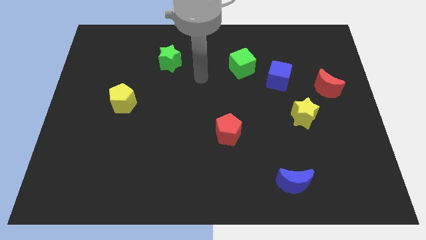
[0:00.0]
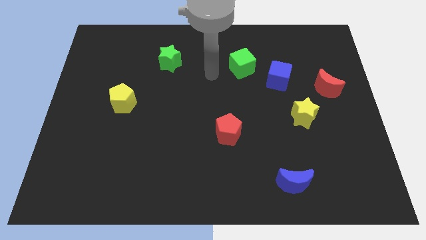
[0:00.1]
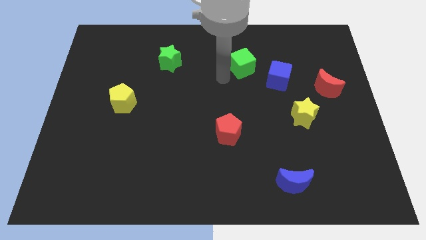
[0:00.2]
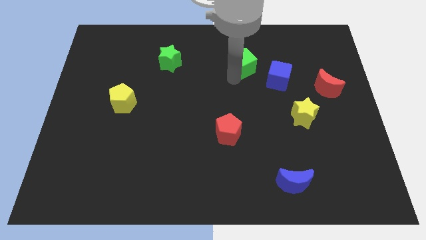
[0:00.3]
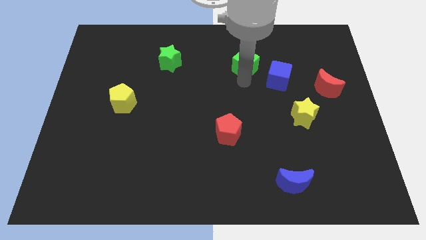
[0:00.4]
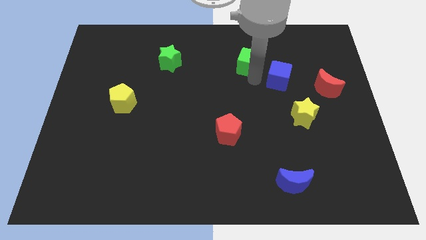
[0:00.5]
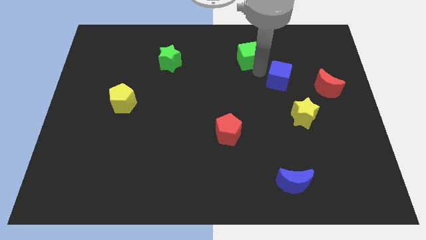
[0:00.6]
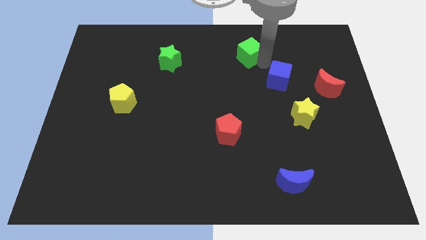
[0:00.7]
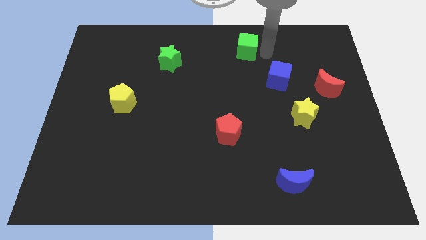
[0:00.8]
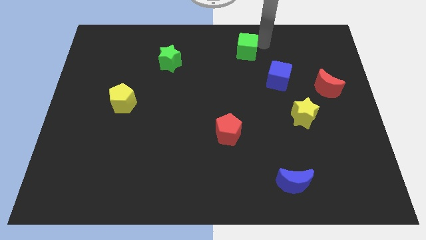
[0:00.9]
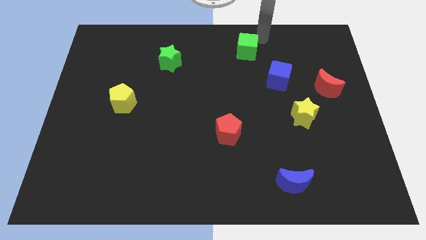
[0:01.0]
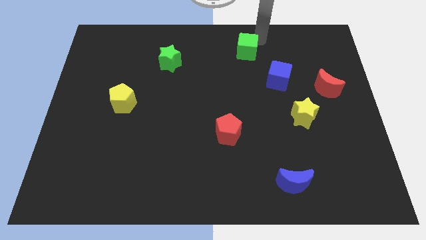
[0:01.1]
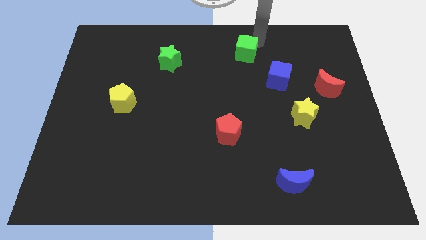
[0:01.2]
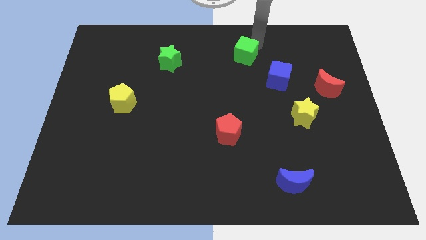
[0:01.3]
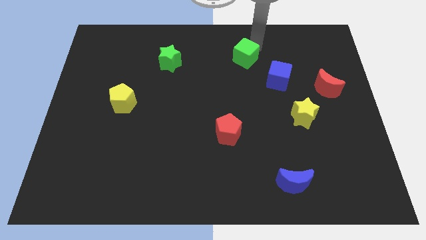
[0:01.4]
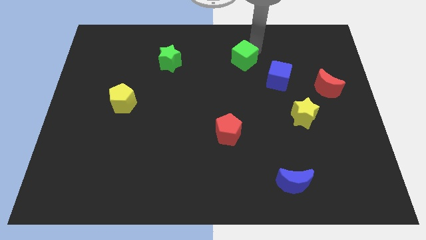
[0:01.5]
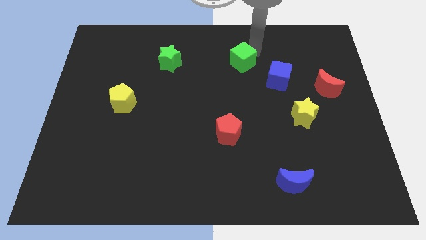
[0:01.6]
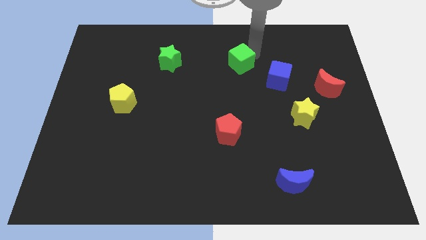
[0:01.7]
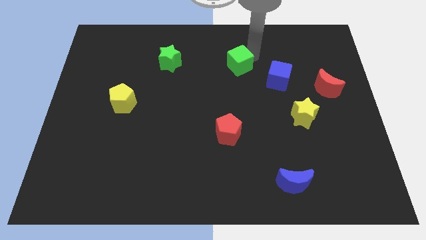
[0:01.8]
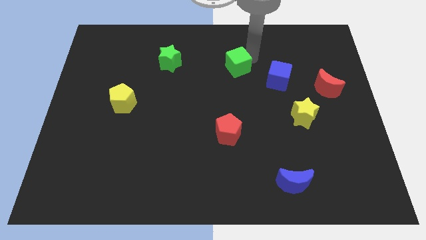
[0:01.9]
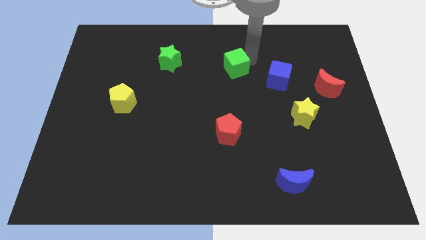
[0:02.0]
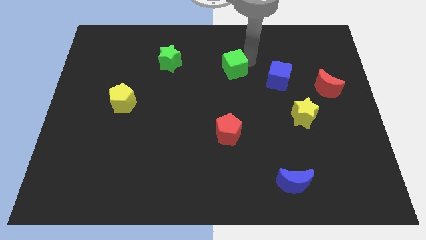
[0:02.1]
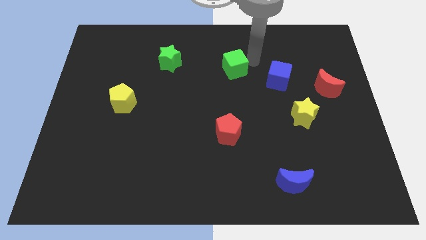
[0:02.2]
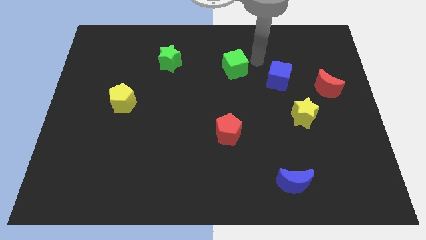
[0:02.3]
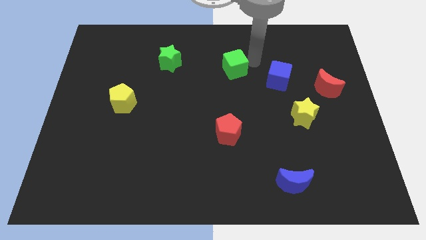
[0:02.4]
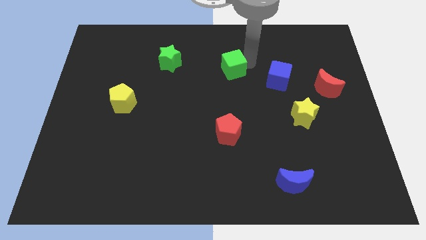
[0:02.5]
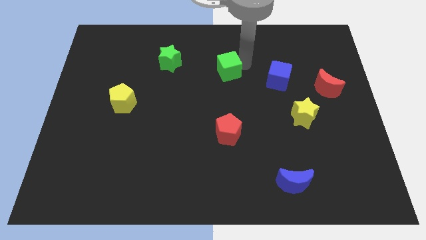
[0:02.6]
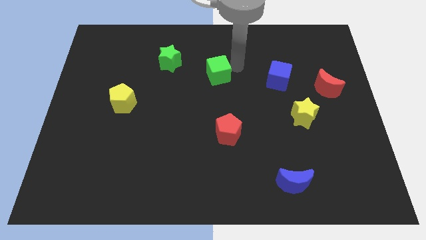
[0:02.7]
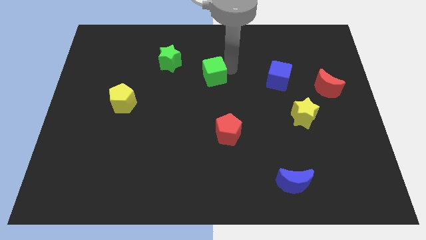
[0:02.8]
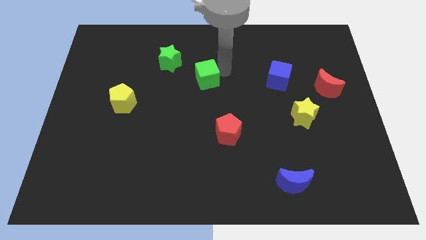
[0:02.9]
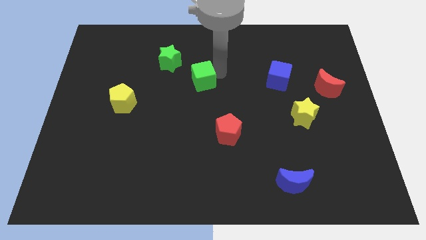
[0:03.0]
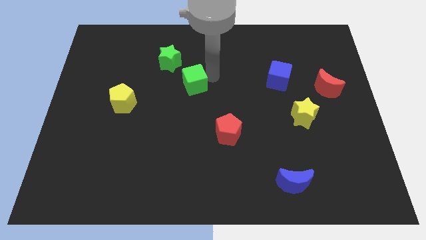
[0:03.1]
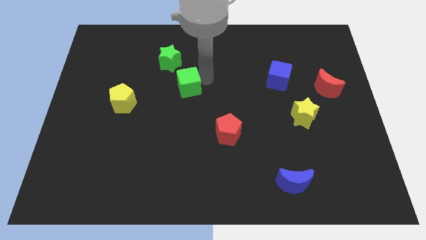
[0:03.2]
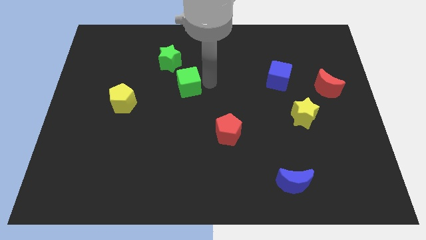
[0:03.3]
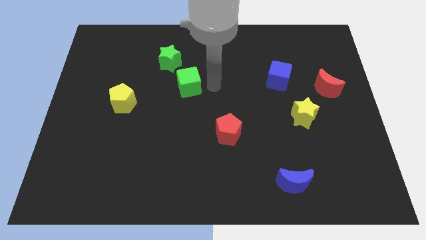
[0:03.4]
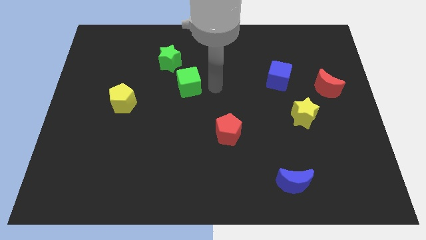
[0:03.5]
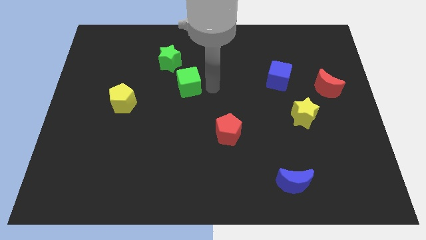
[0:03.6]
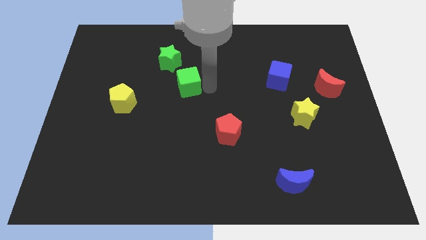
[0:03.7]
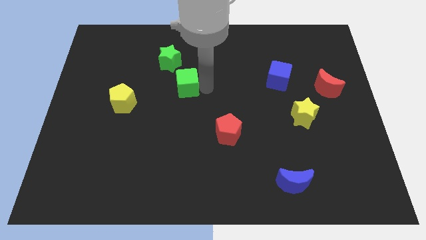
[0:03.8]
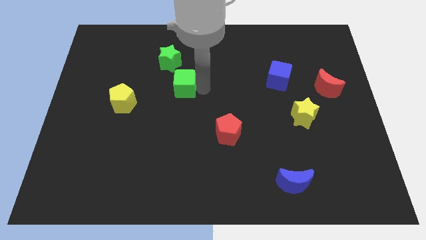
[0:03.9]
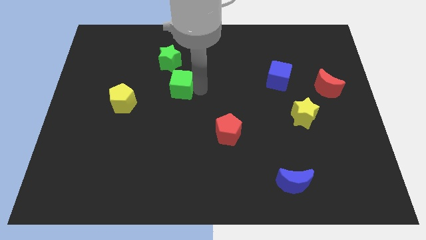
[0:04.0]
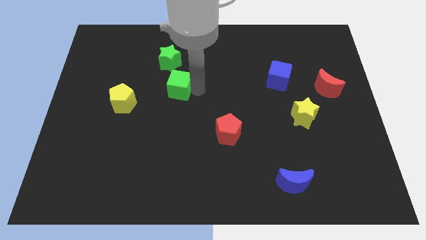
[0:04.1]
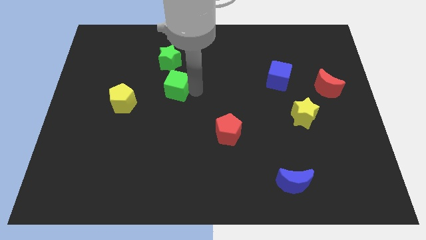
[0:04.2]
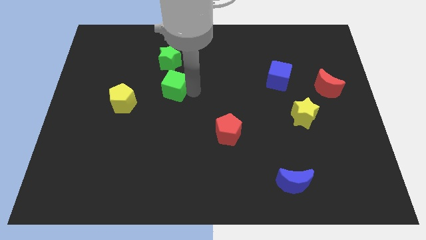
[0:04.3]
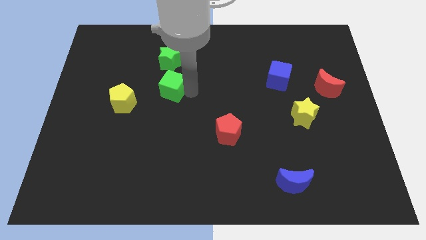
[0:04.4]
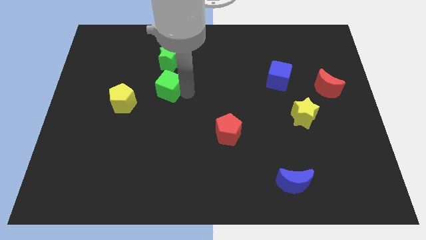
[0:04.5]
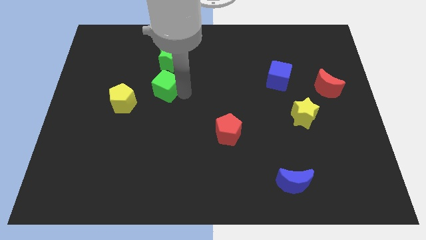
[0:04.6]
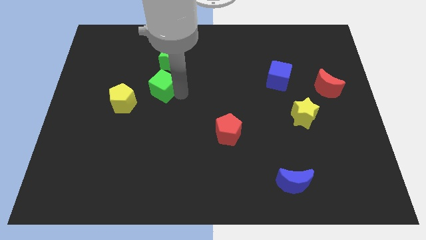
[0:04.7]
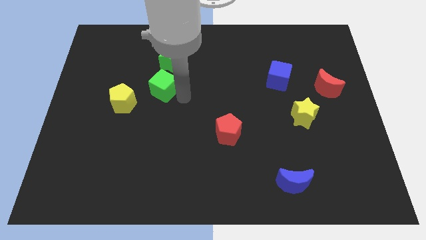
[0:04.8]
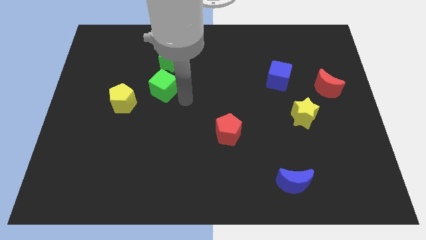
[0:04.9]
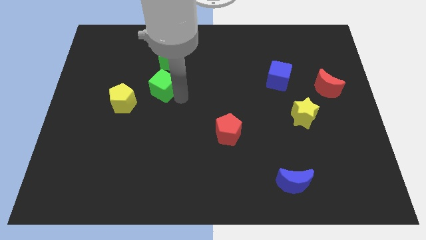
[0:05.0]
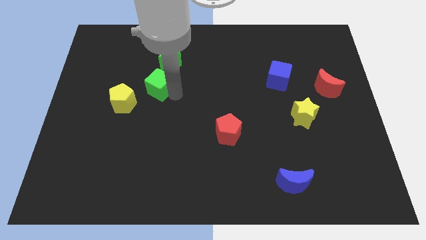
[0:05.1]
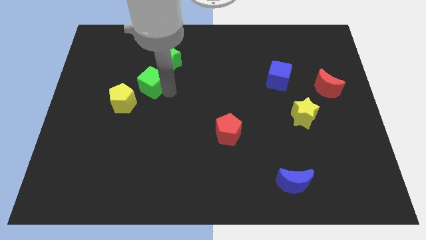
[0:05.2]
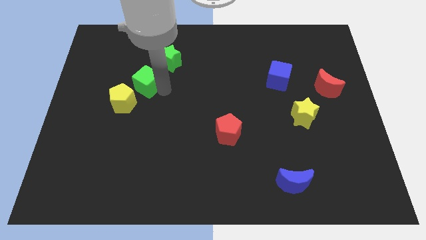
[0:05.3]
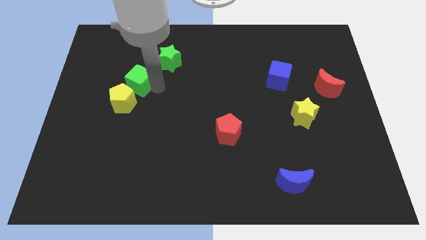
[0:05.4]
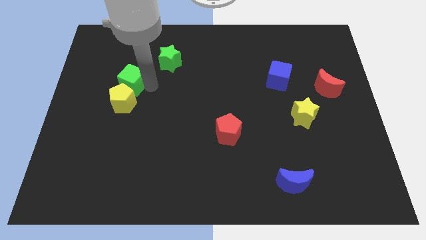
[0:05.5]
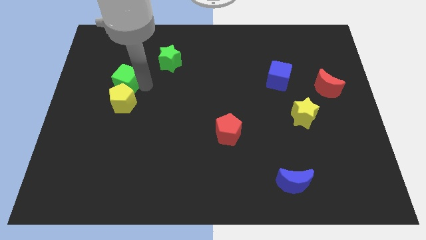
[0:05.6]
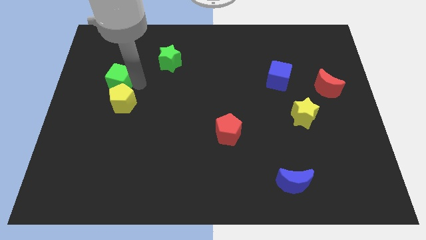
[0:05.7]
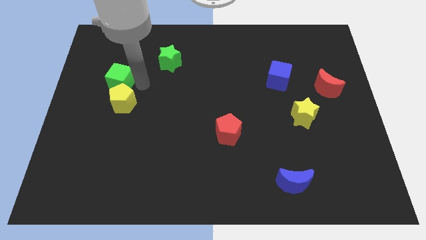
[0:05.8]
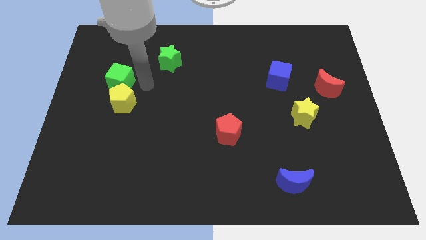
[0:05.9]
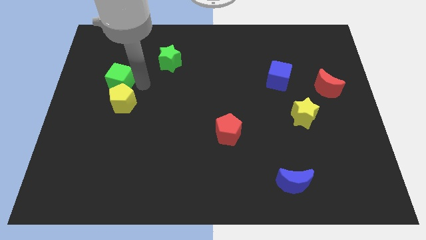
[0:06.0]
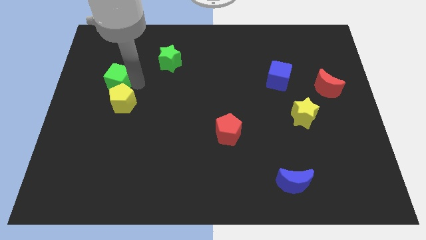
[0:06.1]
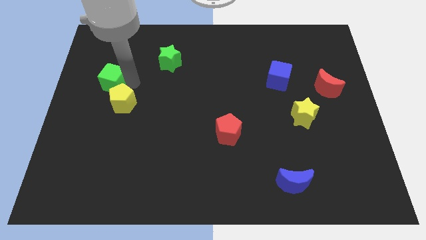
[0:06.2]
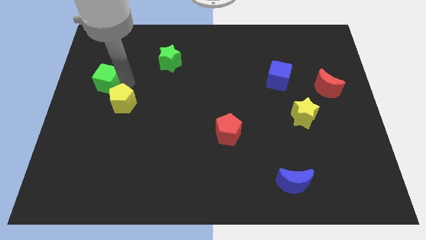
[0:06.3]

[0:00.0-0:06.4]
push the green cube to the center left

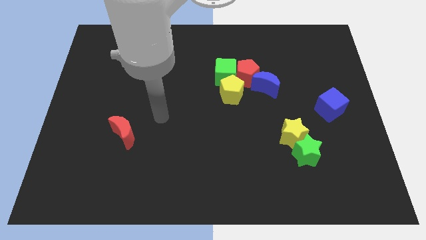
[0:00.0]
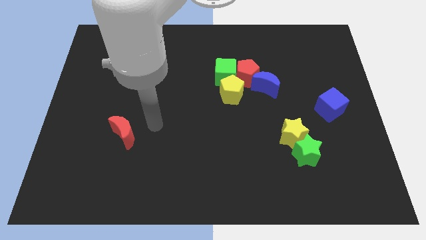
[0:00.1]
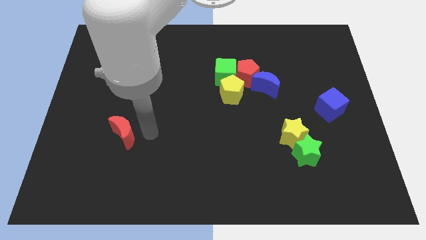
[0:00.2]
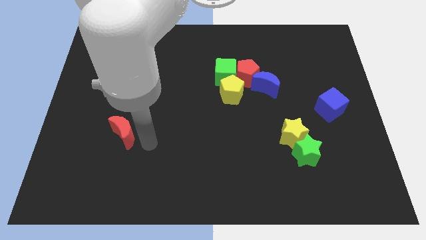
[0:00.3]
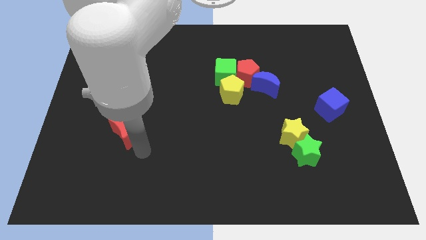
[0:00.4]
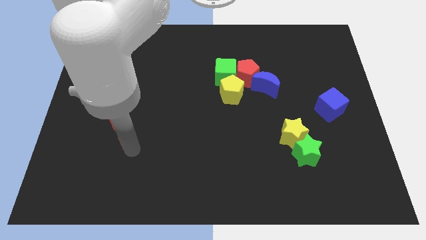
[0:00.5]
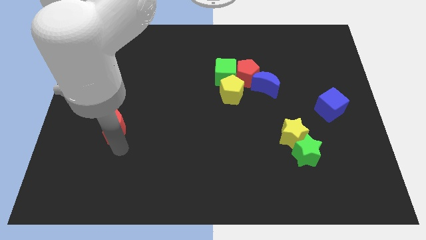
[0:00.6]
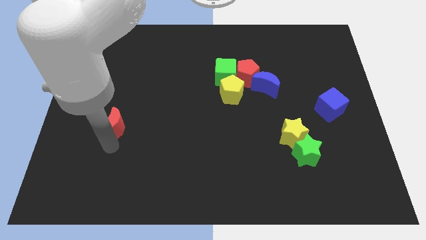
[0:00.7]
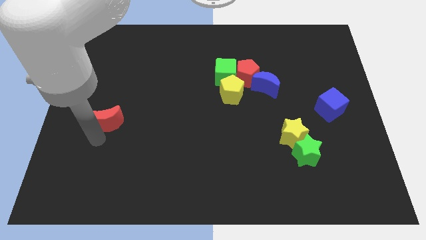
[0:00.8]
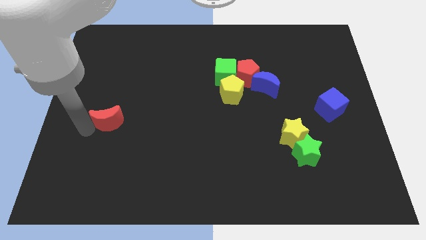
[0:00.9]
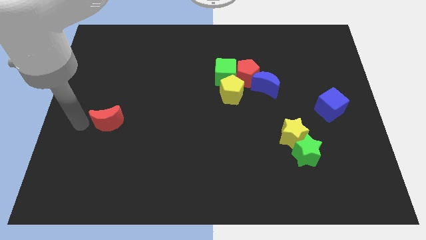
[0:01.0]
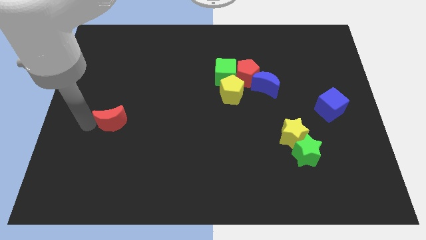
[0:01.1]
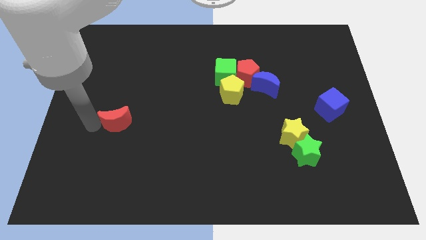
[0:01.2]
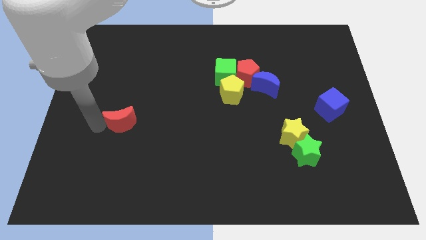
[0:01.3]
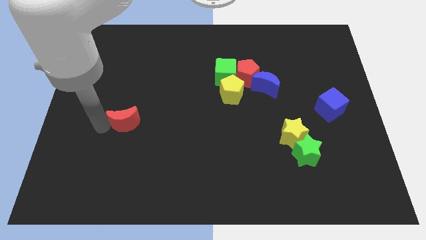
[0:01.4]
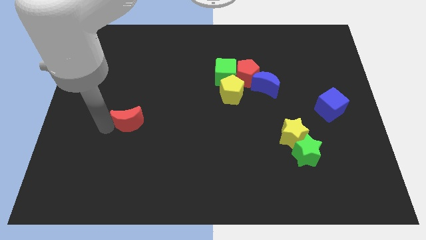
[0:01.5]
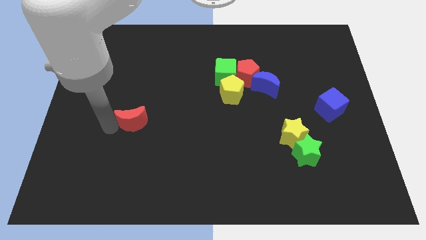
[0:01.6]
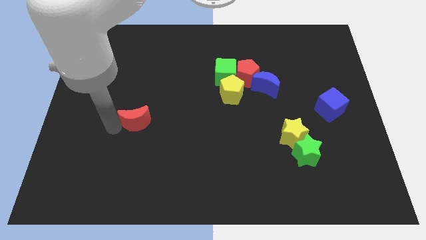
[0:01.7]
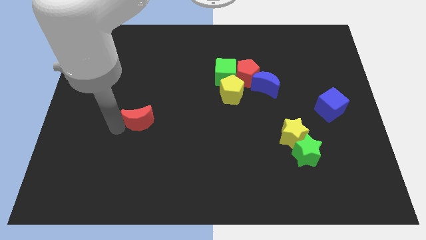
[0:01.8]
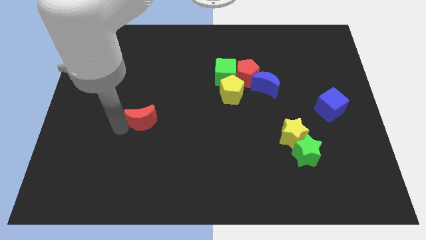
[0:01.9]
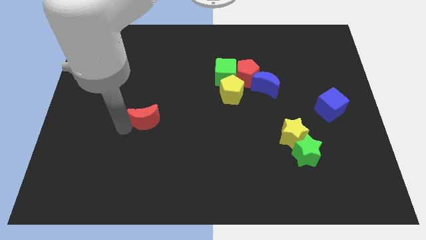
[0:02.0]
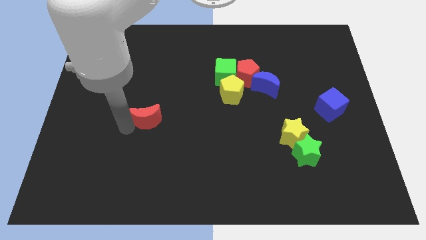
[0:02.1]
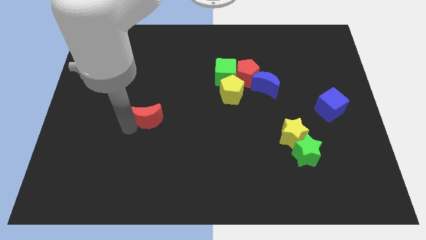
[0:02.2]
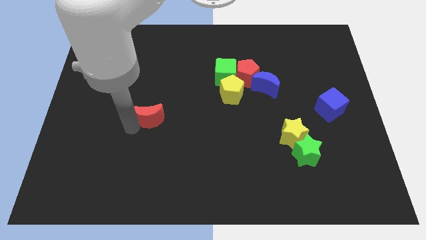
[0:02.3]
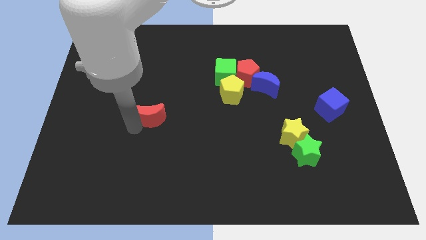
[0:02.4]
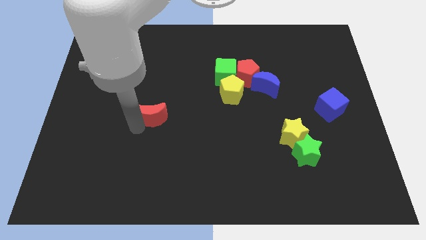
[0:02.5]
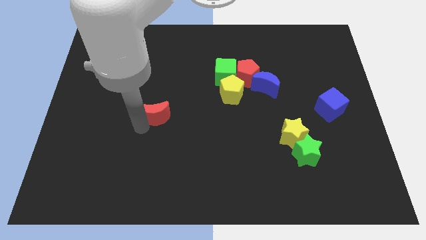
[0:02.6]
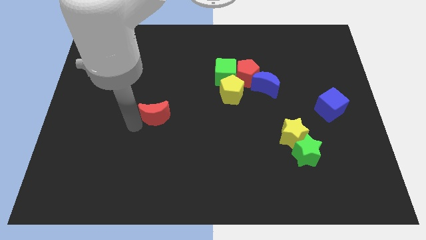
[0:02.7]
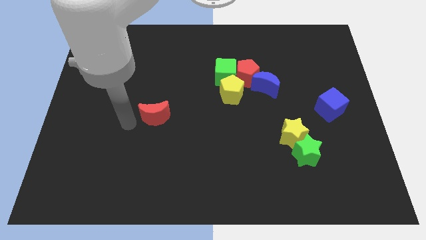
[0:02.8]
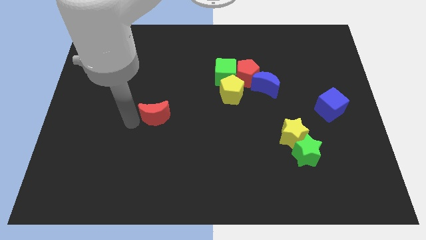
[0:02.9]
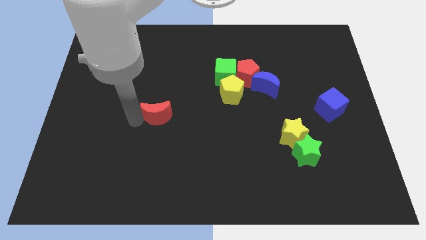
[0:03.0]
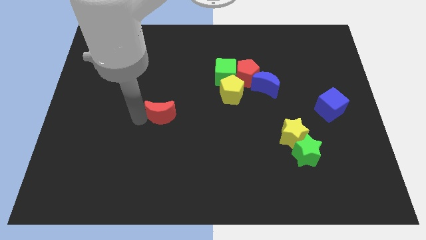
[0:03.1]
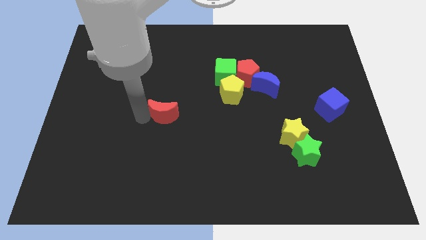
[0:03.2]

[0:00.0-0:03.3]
slide the red moon to the middle of the board
